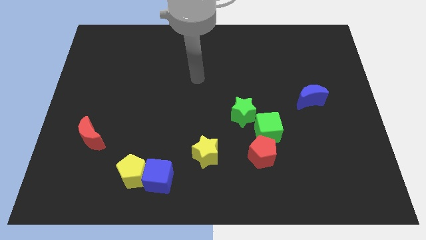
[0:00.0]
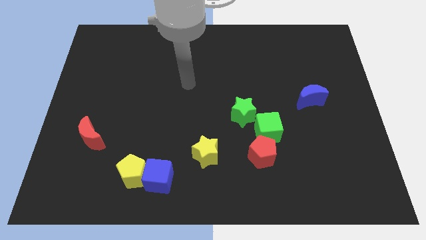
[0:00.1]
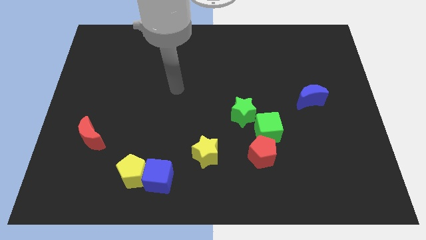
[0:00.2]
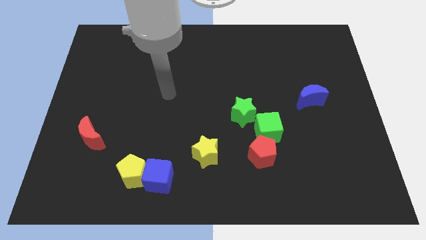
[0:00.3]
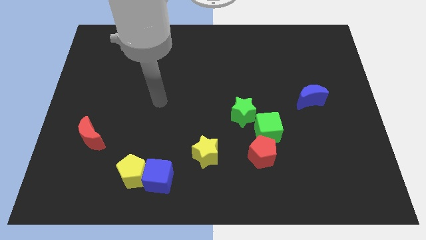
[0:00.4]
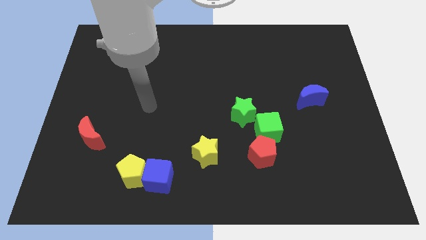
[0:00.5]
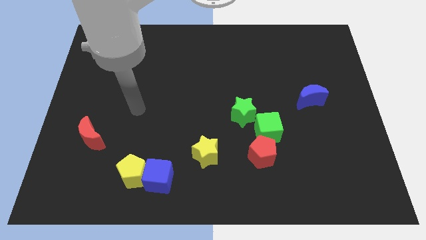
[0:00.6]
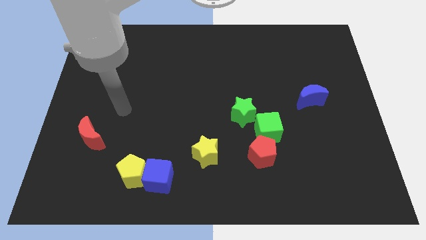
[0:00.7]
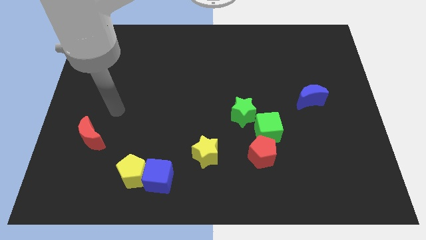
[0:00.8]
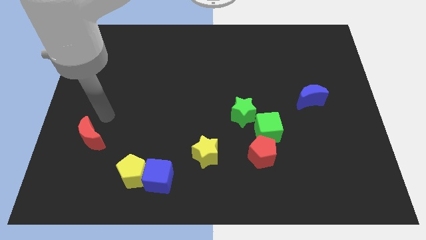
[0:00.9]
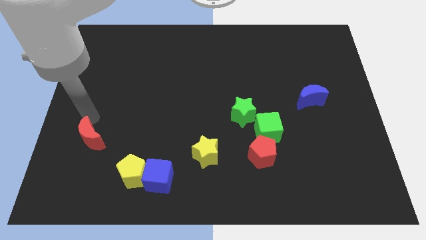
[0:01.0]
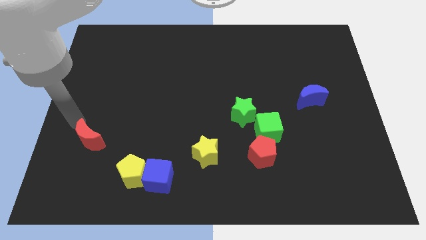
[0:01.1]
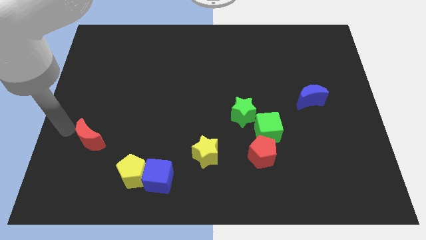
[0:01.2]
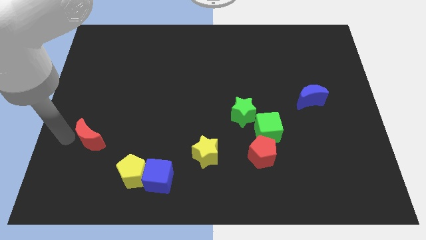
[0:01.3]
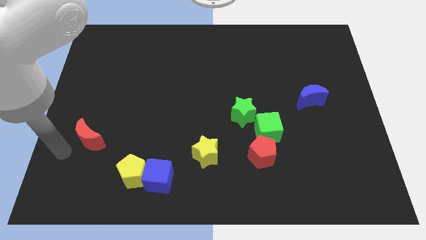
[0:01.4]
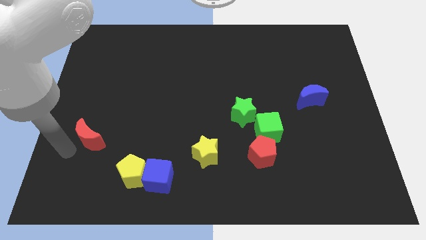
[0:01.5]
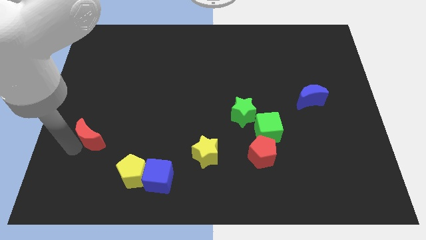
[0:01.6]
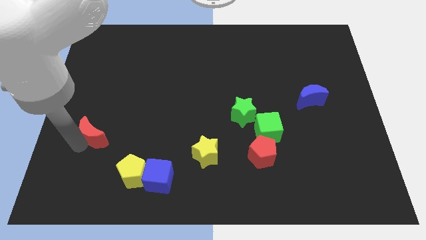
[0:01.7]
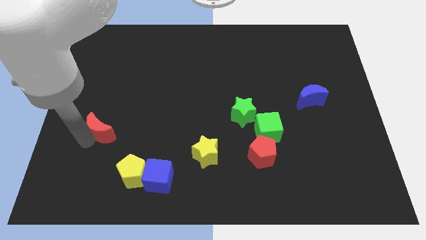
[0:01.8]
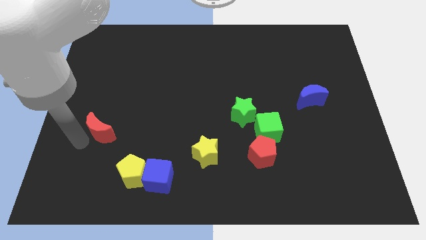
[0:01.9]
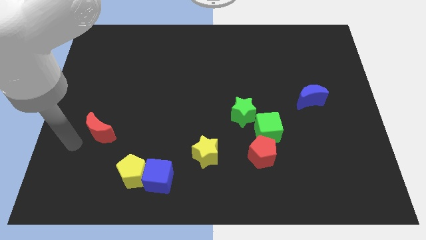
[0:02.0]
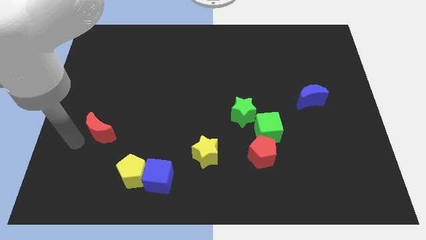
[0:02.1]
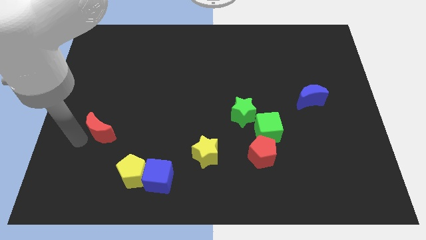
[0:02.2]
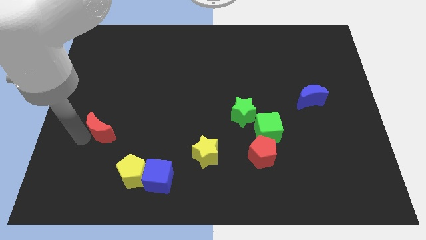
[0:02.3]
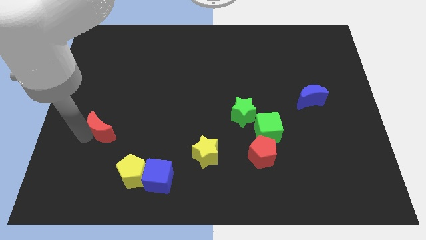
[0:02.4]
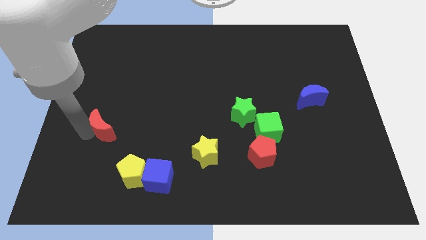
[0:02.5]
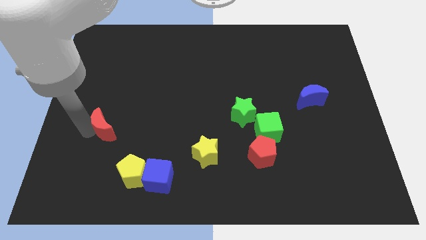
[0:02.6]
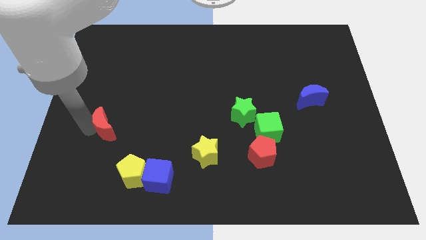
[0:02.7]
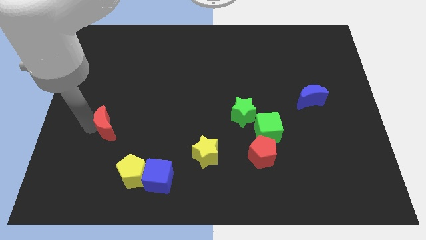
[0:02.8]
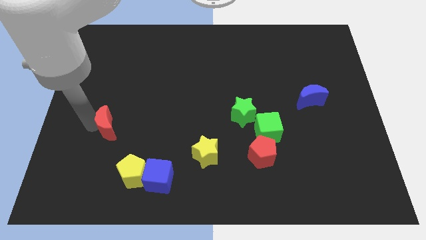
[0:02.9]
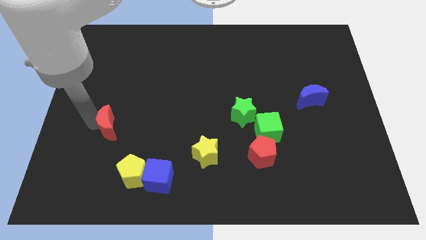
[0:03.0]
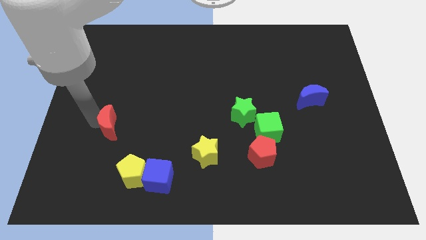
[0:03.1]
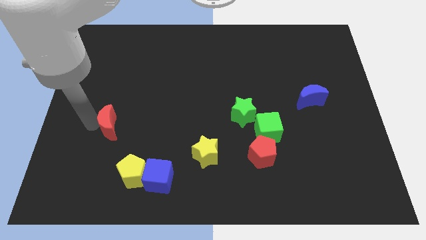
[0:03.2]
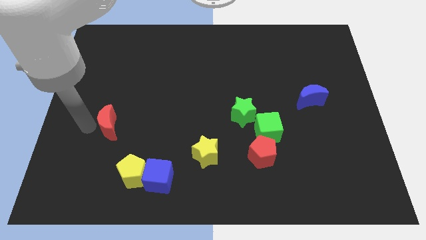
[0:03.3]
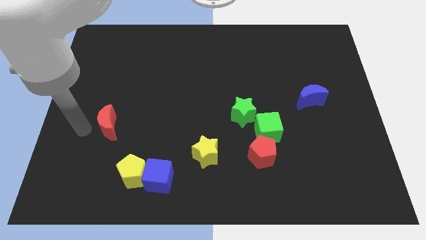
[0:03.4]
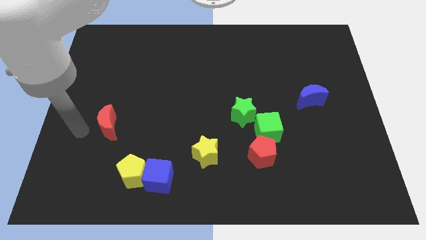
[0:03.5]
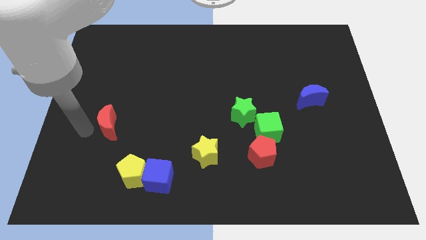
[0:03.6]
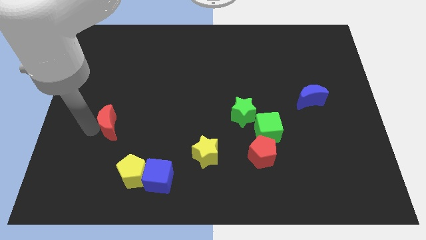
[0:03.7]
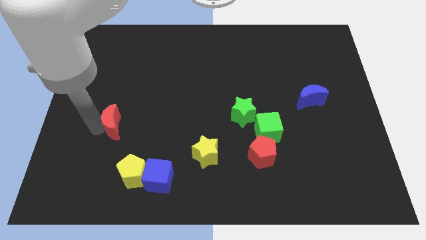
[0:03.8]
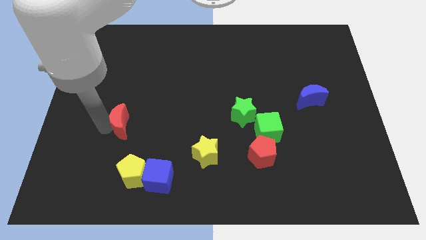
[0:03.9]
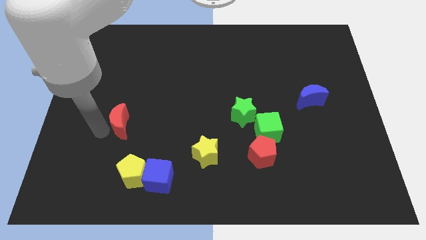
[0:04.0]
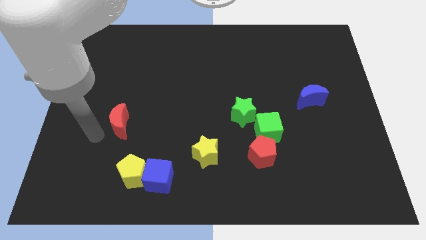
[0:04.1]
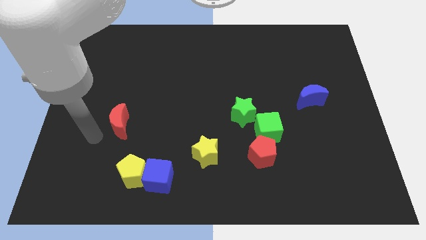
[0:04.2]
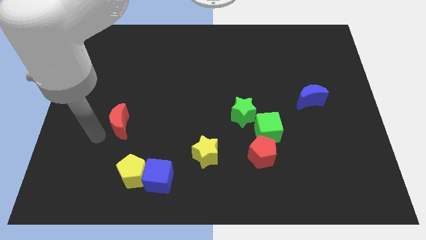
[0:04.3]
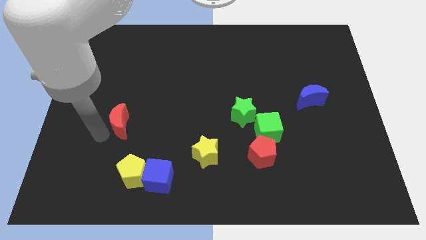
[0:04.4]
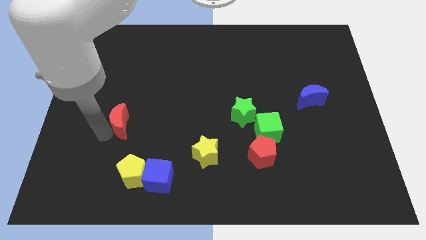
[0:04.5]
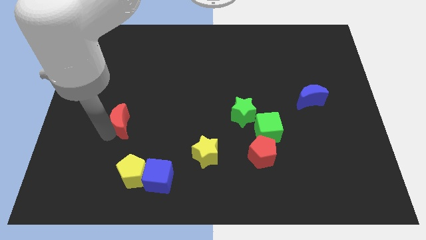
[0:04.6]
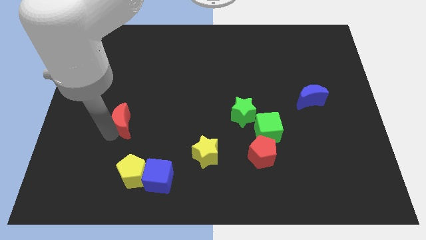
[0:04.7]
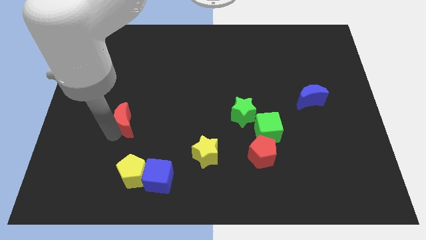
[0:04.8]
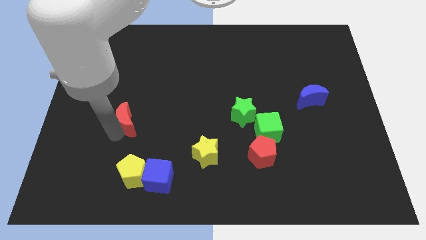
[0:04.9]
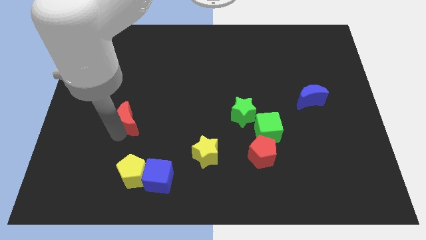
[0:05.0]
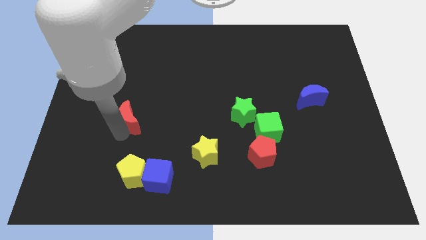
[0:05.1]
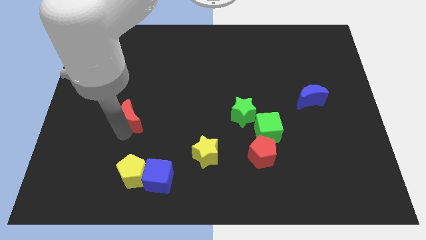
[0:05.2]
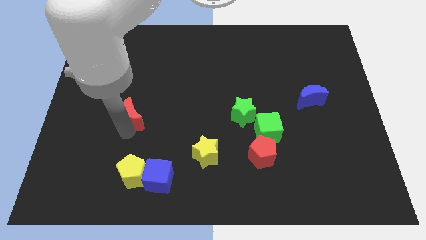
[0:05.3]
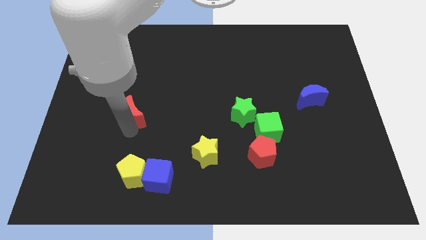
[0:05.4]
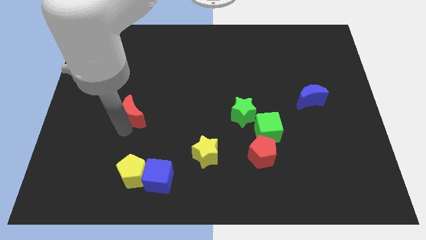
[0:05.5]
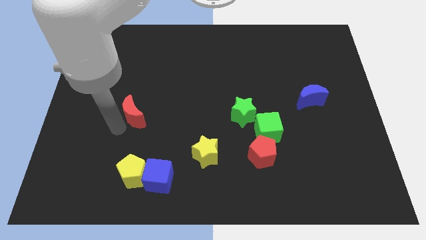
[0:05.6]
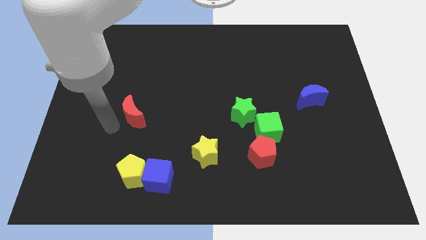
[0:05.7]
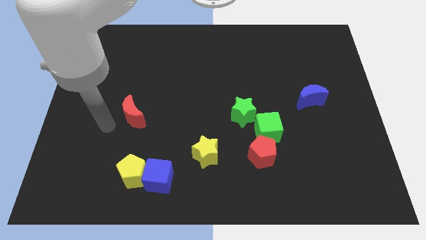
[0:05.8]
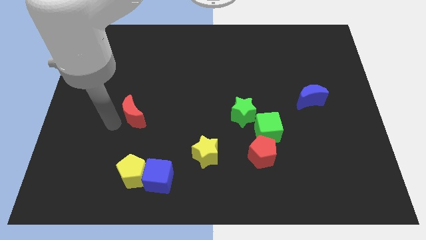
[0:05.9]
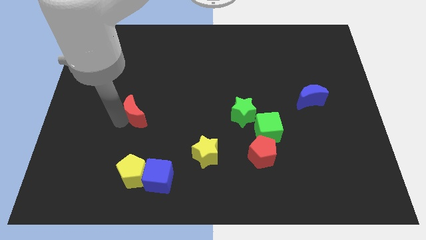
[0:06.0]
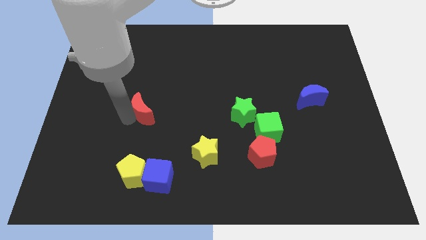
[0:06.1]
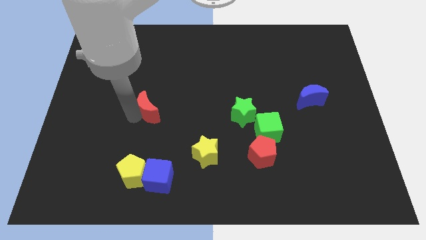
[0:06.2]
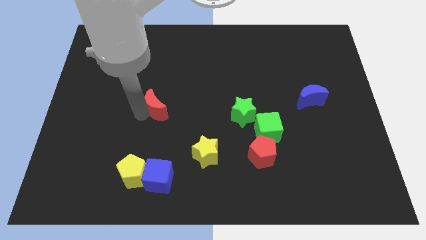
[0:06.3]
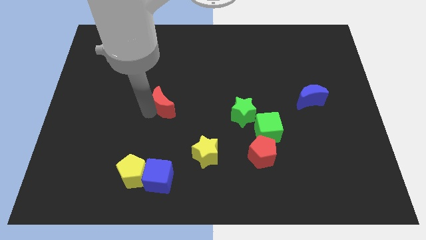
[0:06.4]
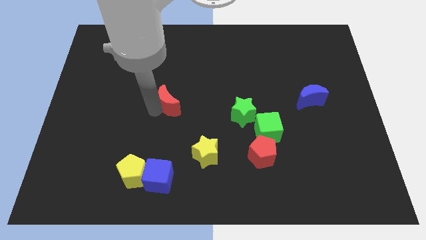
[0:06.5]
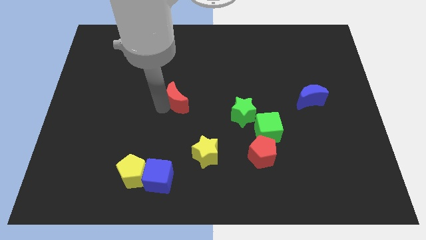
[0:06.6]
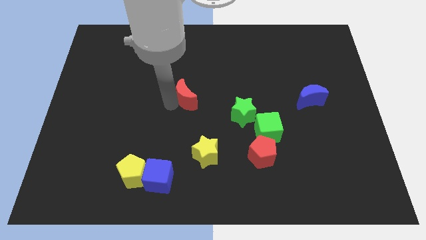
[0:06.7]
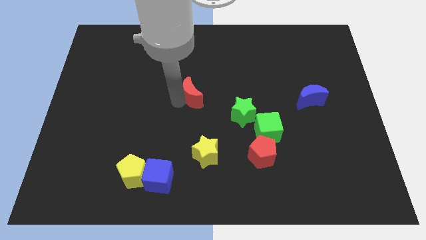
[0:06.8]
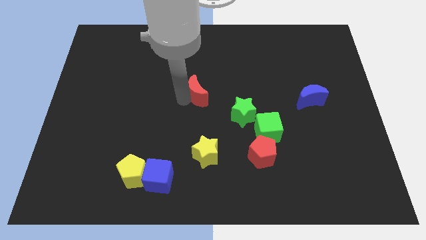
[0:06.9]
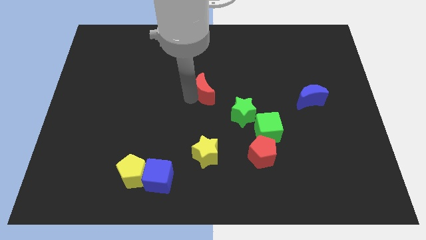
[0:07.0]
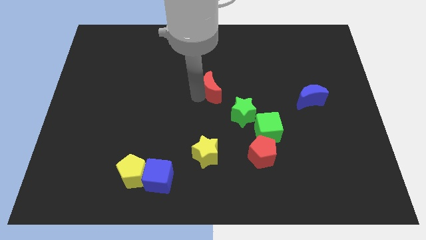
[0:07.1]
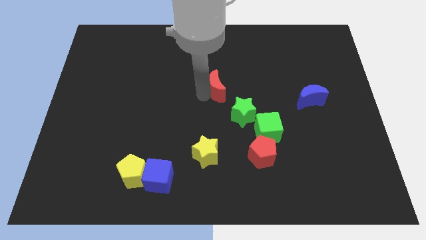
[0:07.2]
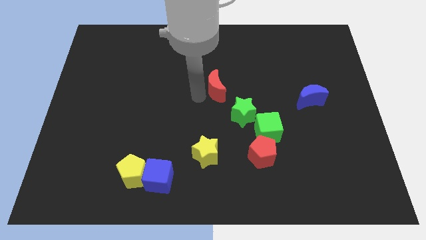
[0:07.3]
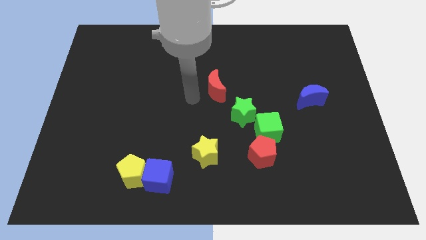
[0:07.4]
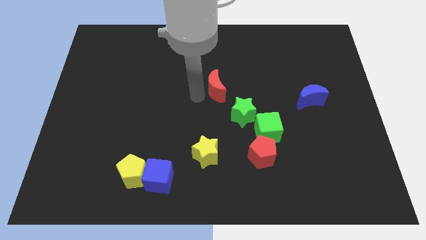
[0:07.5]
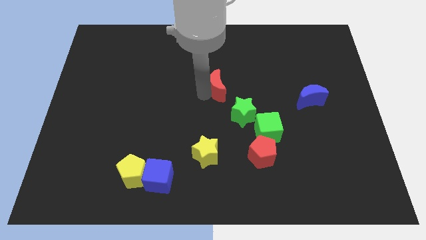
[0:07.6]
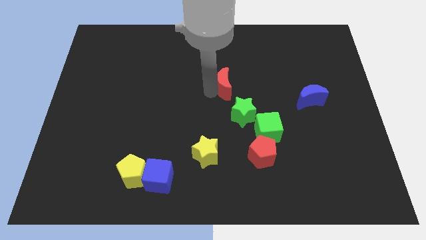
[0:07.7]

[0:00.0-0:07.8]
move the red moon to the top side of the green star

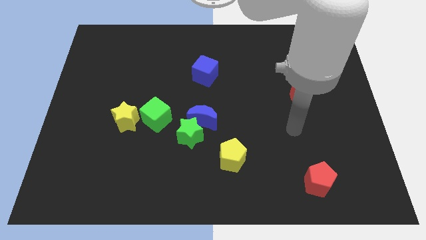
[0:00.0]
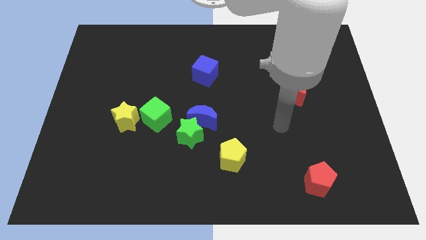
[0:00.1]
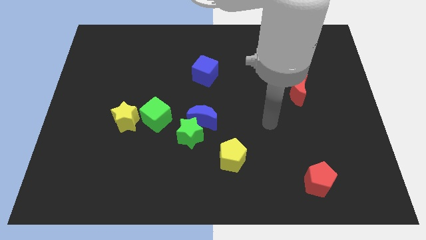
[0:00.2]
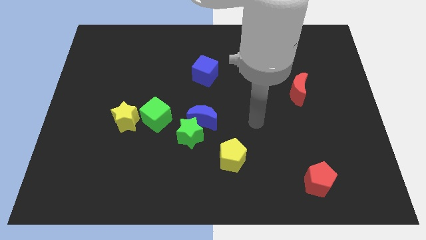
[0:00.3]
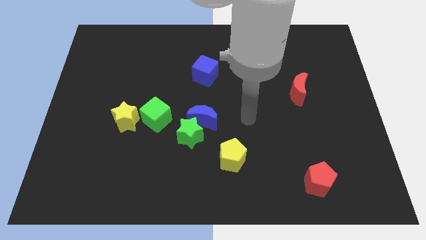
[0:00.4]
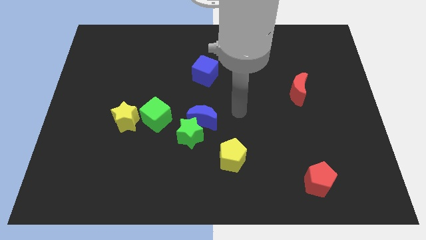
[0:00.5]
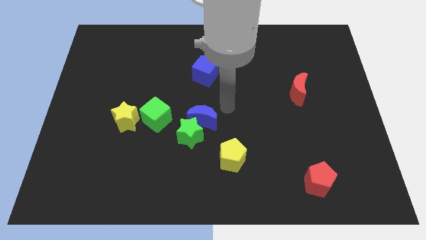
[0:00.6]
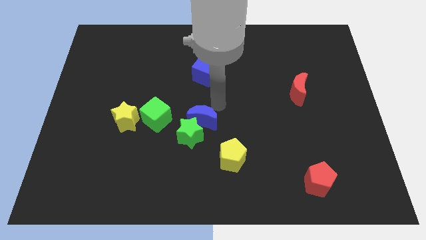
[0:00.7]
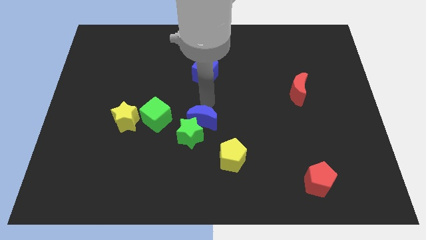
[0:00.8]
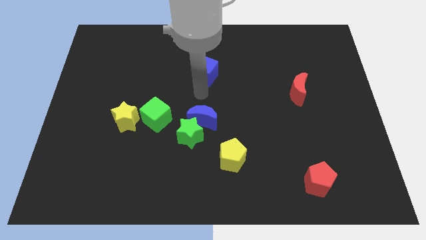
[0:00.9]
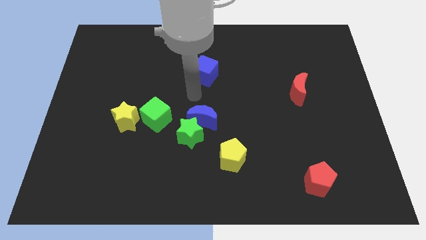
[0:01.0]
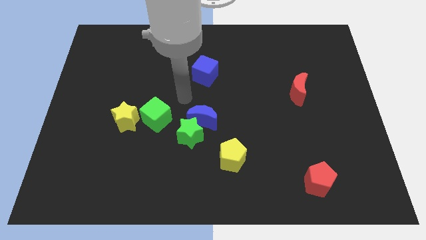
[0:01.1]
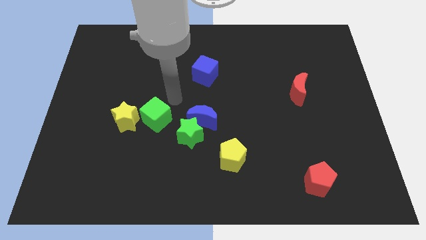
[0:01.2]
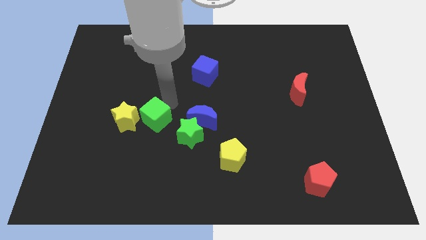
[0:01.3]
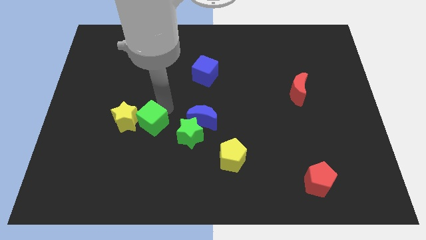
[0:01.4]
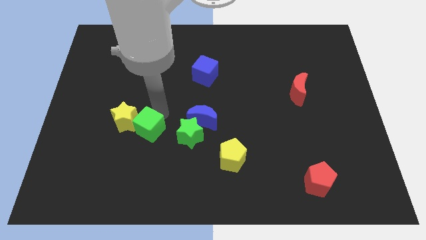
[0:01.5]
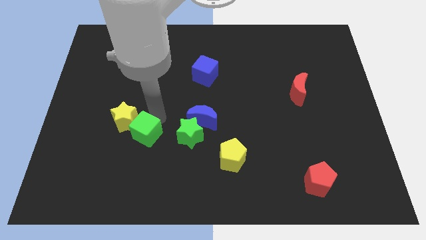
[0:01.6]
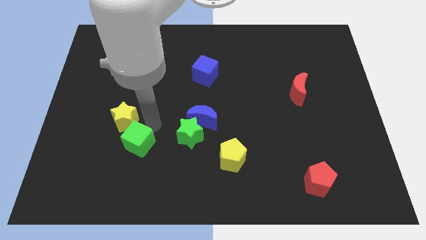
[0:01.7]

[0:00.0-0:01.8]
push the green cube below the yellow star
